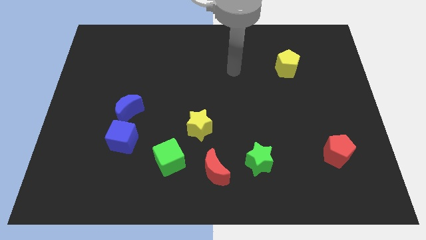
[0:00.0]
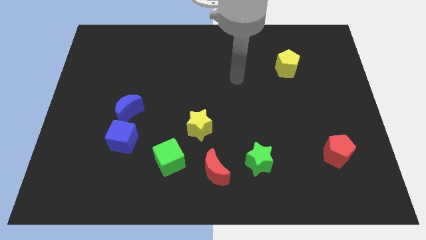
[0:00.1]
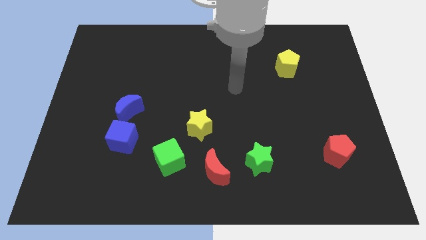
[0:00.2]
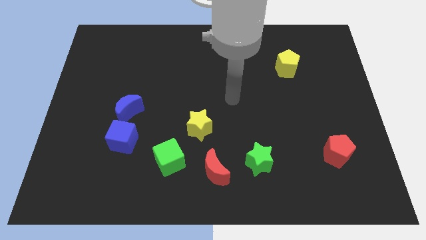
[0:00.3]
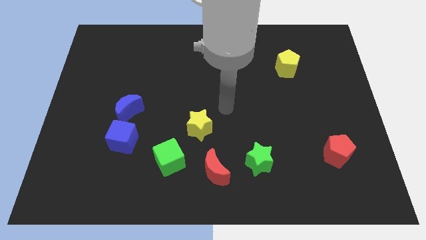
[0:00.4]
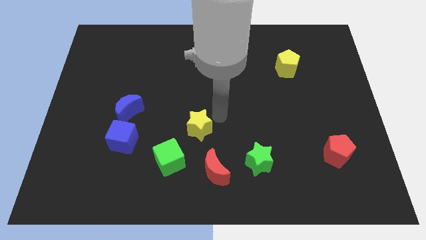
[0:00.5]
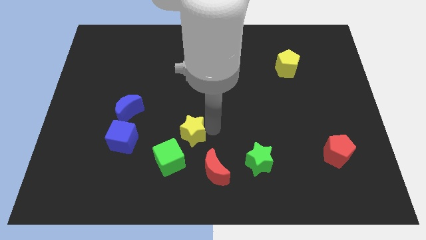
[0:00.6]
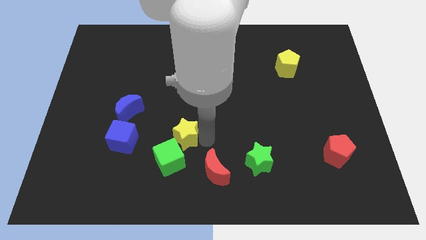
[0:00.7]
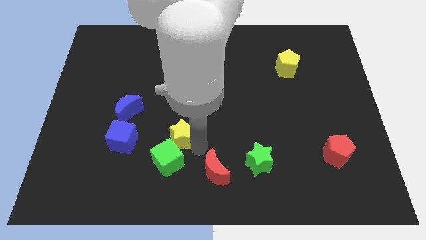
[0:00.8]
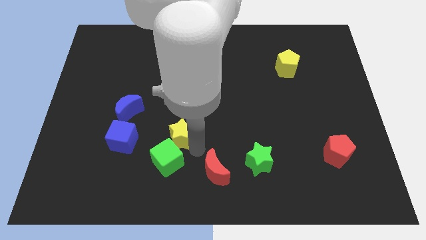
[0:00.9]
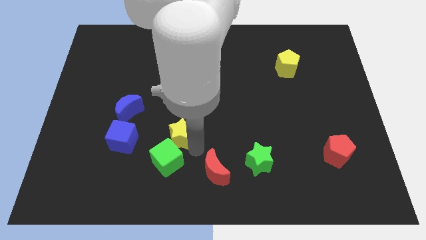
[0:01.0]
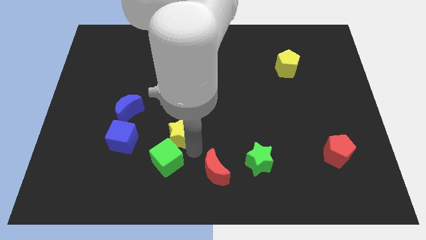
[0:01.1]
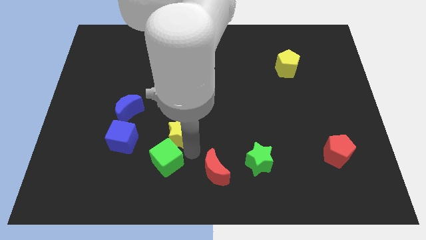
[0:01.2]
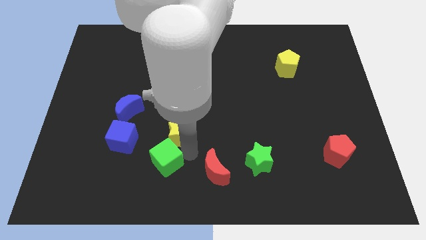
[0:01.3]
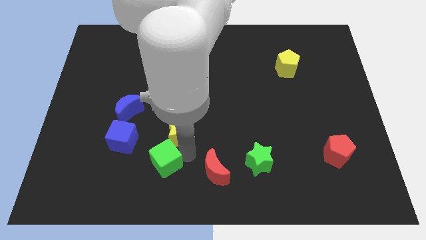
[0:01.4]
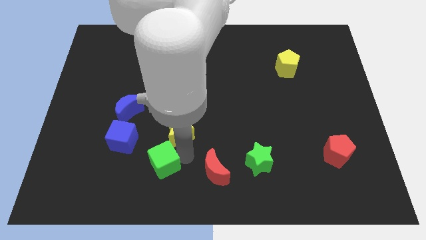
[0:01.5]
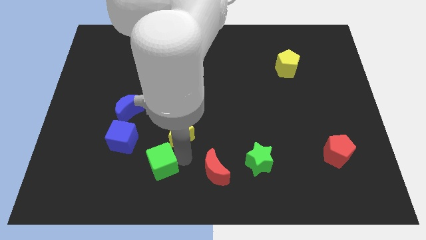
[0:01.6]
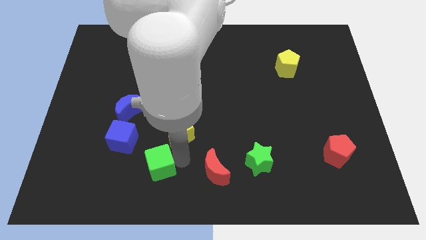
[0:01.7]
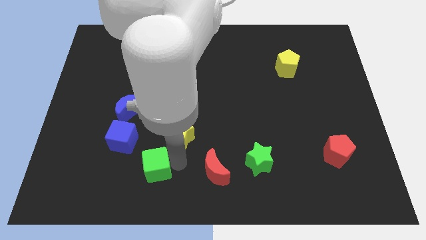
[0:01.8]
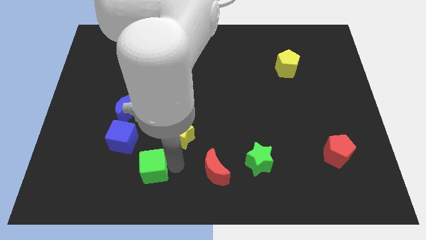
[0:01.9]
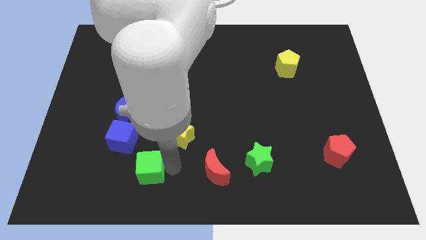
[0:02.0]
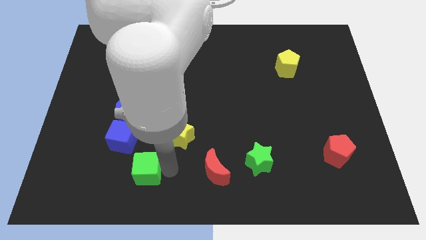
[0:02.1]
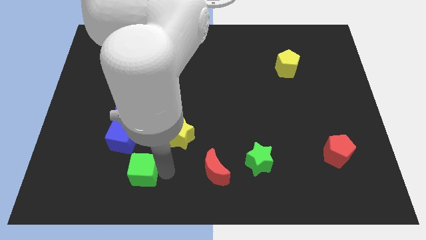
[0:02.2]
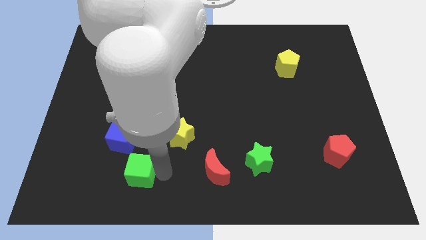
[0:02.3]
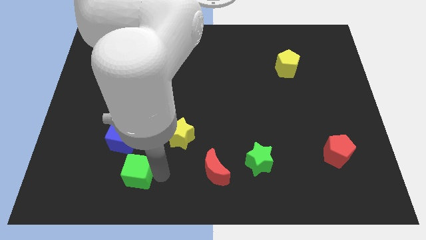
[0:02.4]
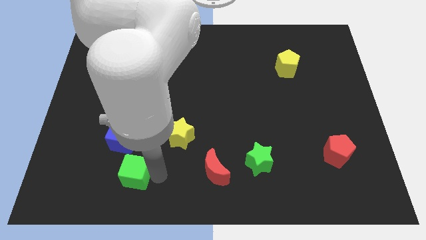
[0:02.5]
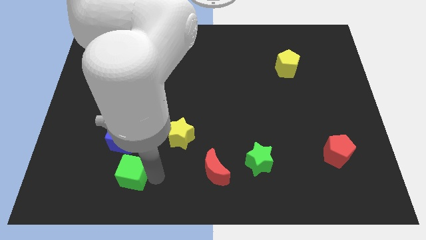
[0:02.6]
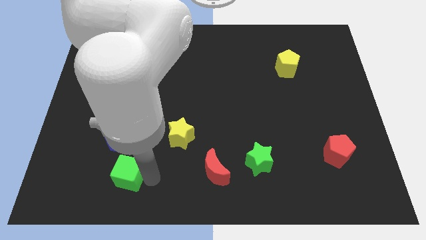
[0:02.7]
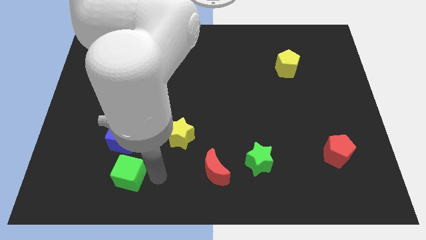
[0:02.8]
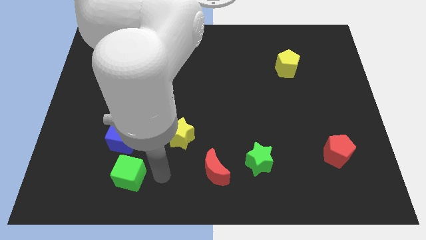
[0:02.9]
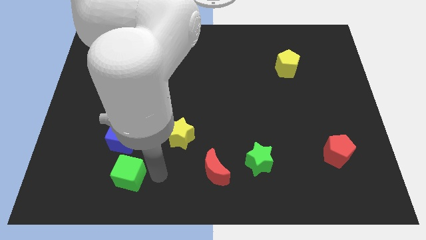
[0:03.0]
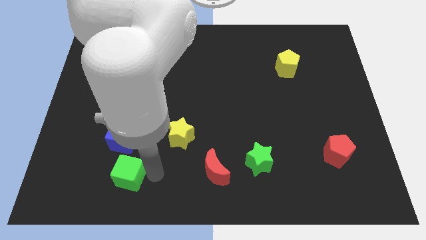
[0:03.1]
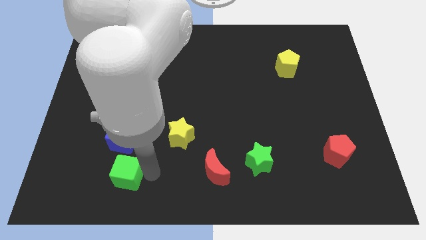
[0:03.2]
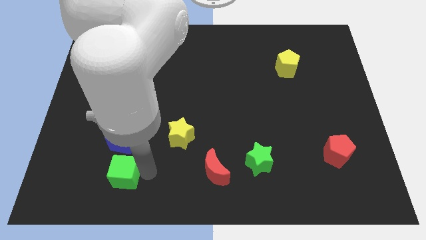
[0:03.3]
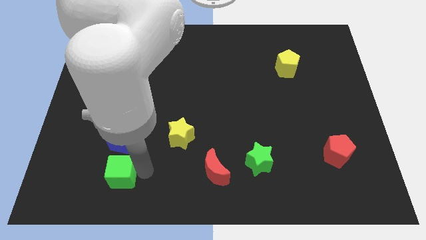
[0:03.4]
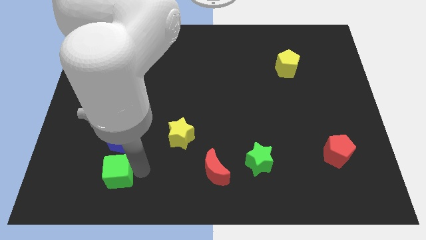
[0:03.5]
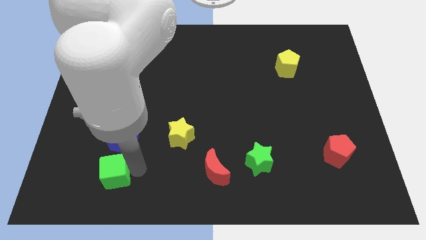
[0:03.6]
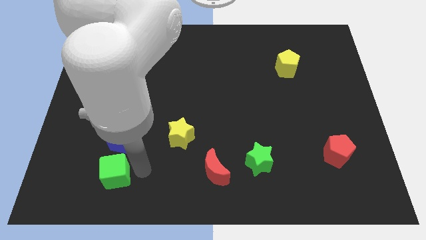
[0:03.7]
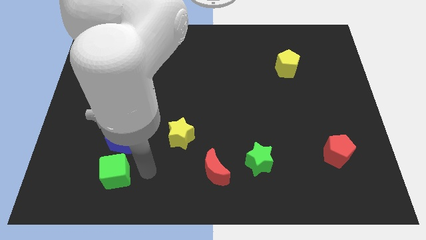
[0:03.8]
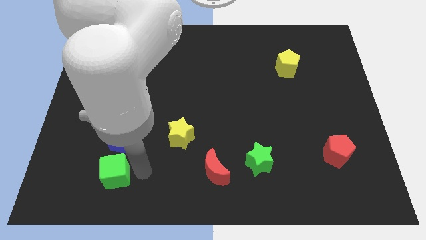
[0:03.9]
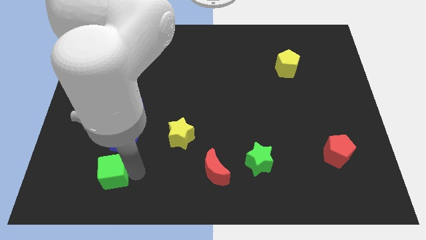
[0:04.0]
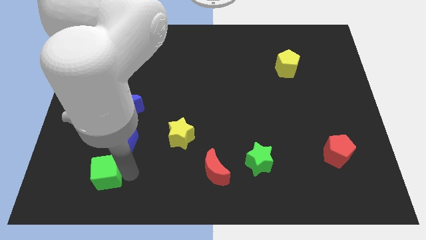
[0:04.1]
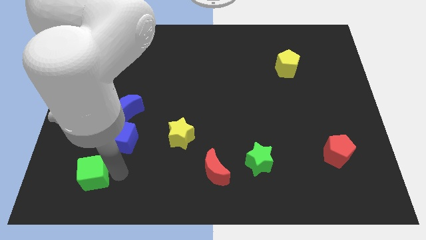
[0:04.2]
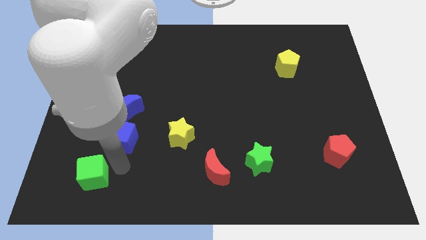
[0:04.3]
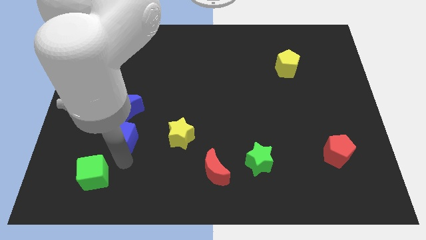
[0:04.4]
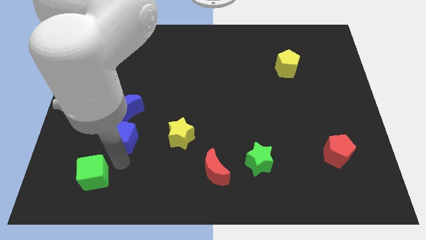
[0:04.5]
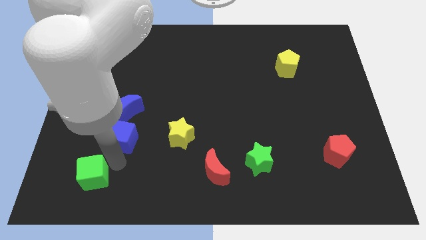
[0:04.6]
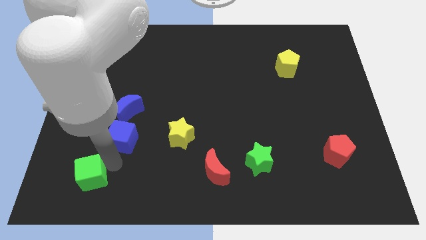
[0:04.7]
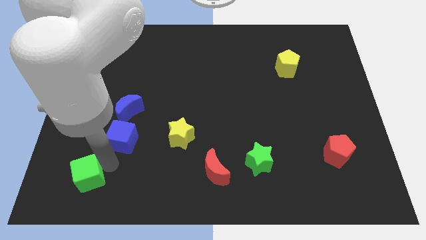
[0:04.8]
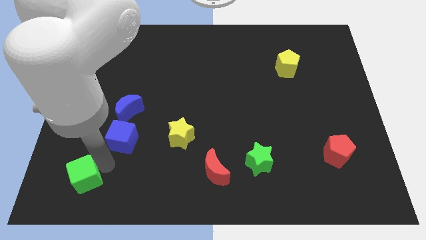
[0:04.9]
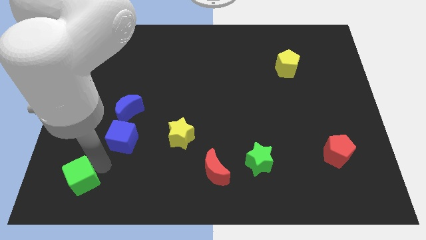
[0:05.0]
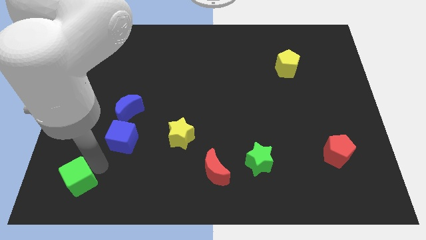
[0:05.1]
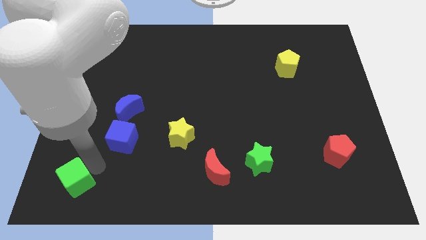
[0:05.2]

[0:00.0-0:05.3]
slide the green cube to the bottom left corner

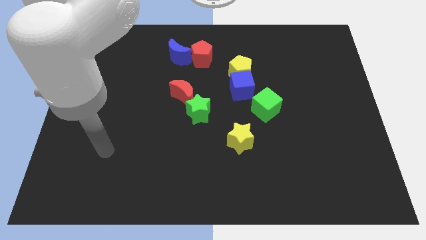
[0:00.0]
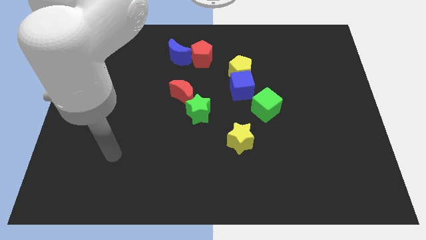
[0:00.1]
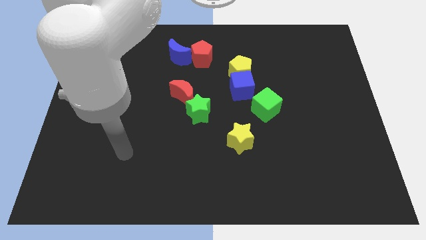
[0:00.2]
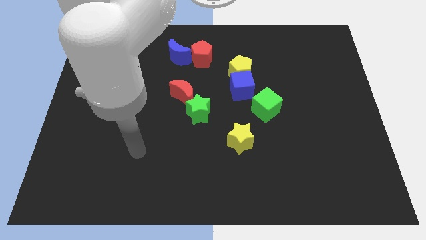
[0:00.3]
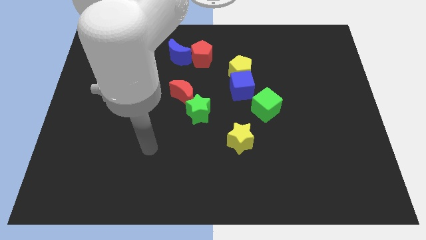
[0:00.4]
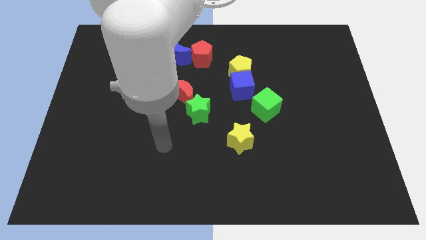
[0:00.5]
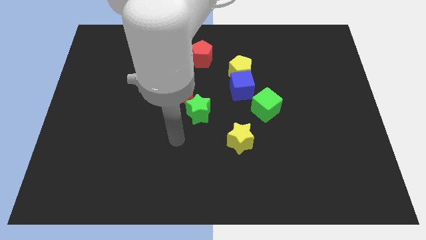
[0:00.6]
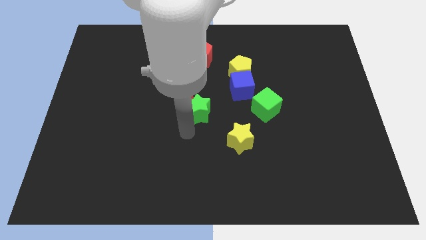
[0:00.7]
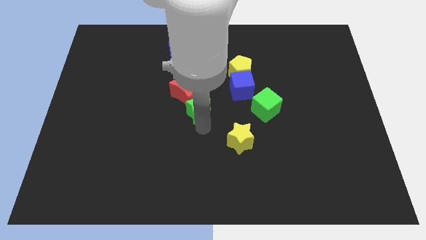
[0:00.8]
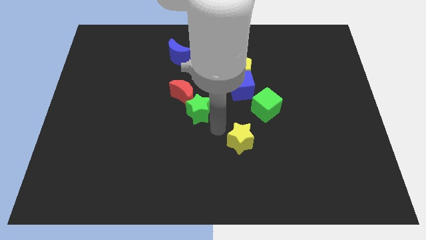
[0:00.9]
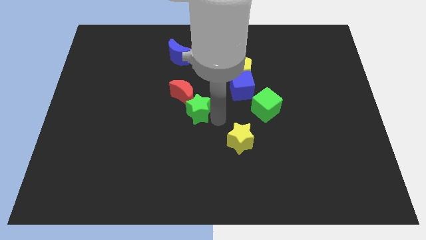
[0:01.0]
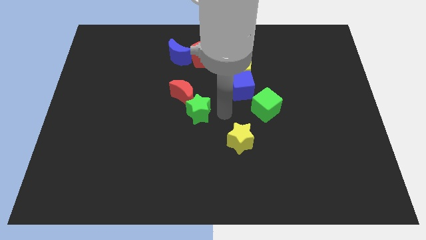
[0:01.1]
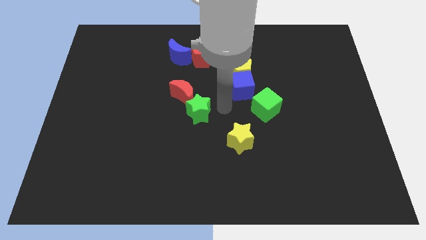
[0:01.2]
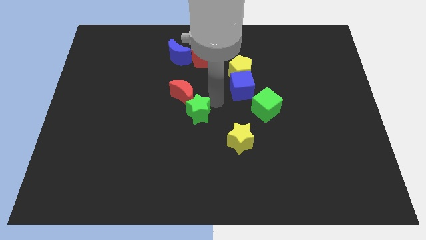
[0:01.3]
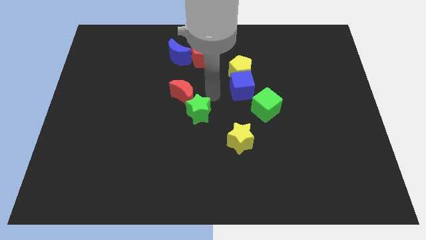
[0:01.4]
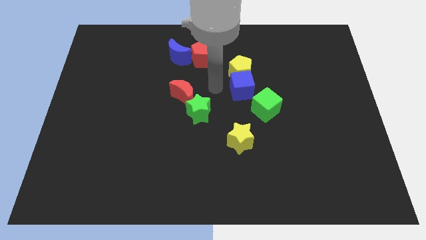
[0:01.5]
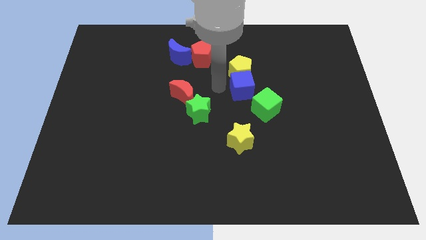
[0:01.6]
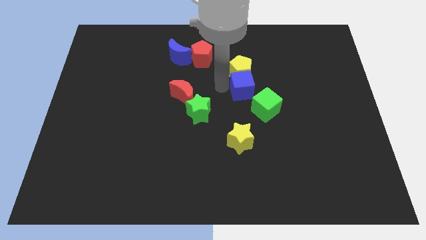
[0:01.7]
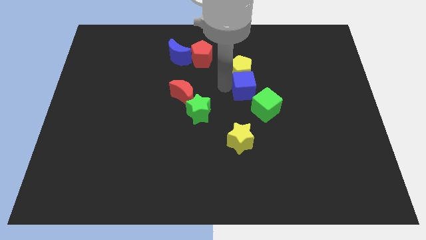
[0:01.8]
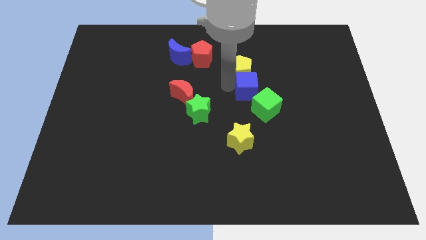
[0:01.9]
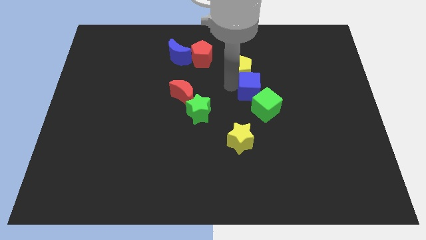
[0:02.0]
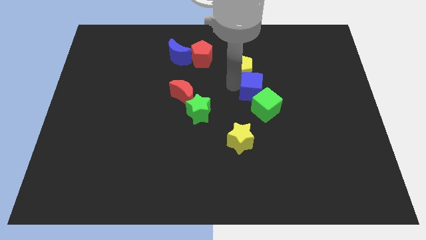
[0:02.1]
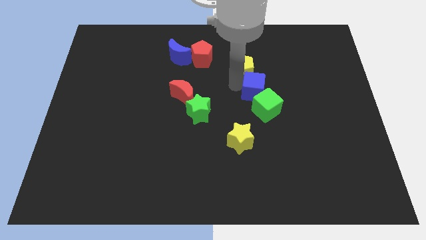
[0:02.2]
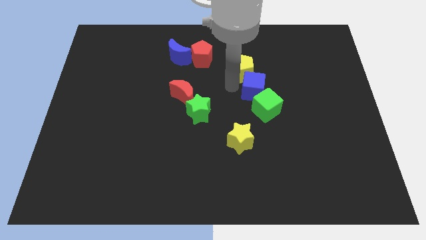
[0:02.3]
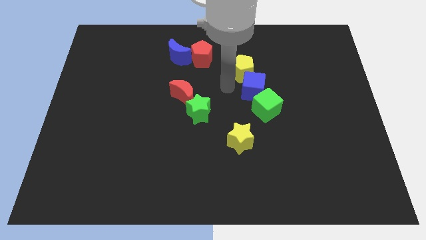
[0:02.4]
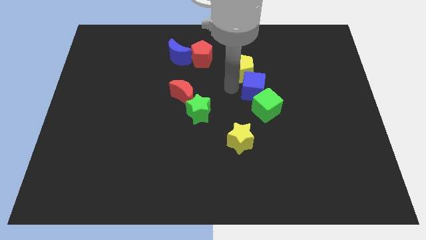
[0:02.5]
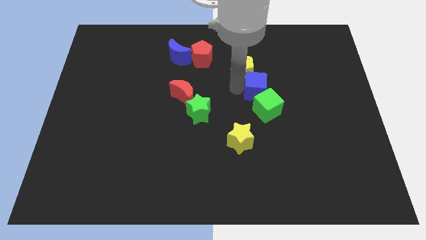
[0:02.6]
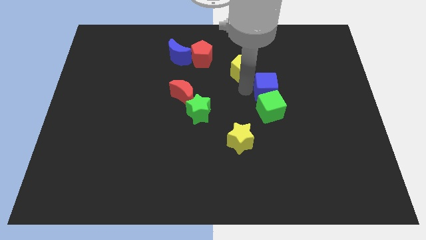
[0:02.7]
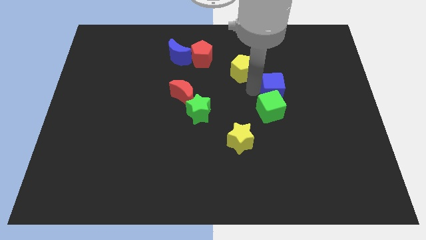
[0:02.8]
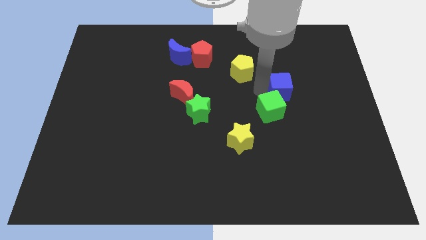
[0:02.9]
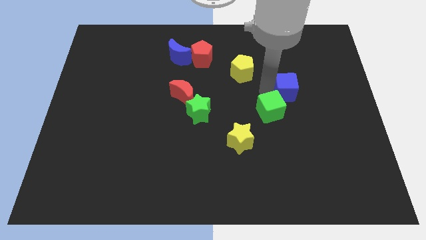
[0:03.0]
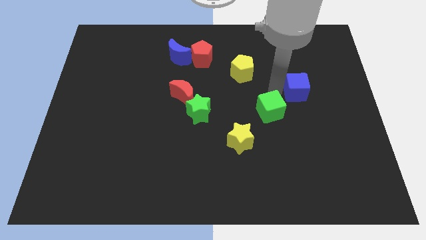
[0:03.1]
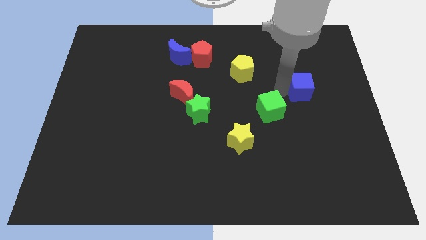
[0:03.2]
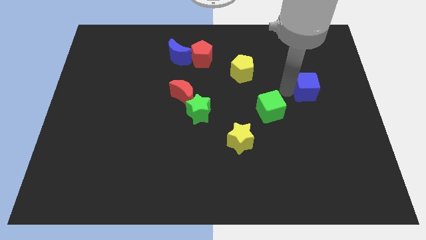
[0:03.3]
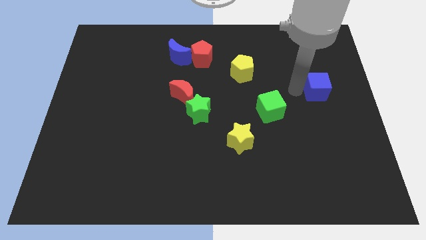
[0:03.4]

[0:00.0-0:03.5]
slide the blue cube to the center right
